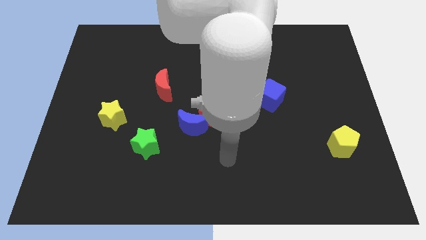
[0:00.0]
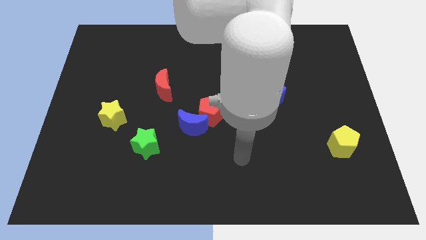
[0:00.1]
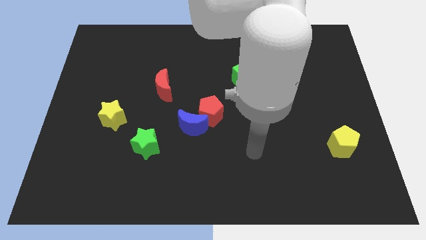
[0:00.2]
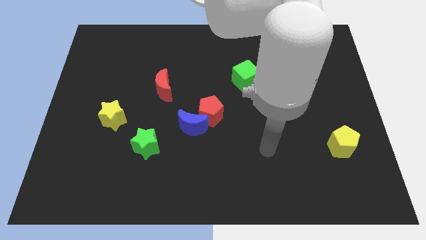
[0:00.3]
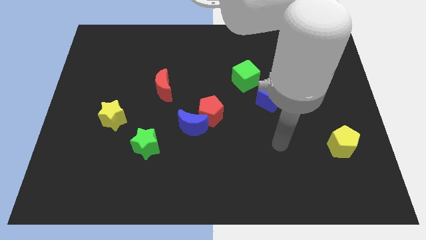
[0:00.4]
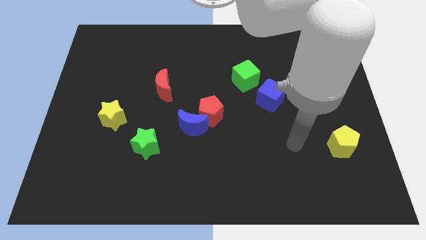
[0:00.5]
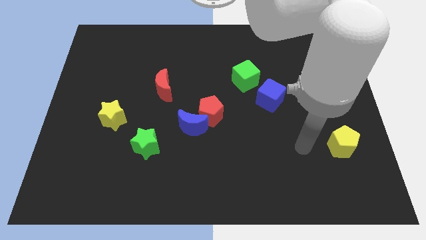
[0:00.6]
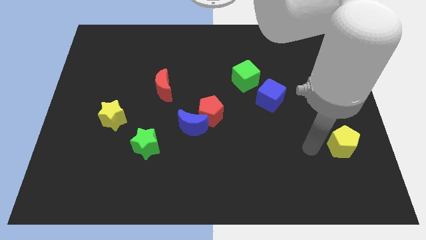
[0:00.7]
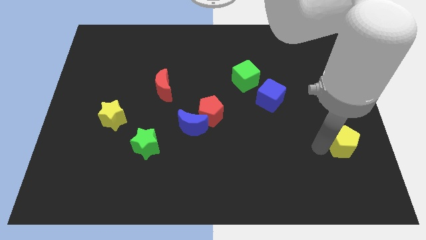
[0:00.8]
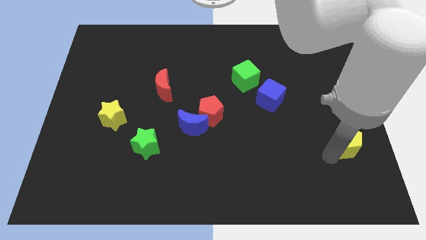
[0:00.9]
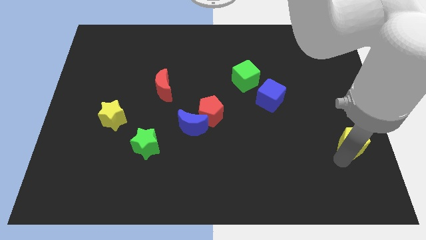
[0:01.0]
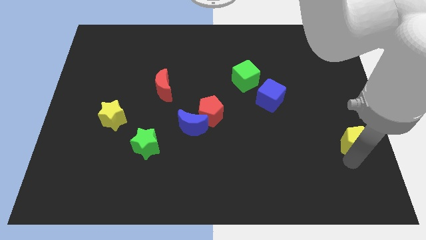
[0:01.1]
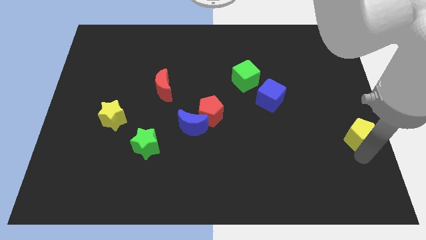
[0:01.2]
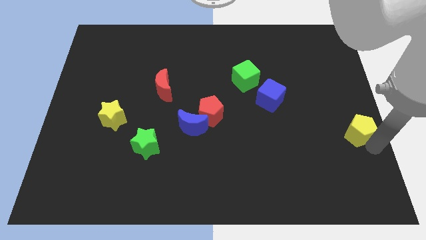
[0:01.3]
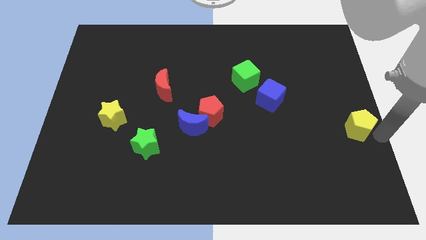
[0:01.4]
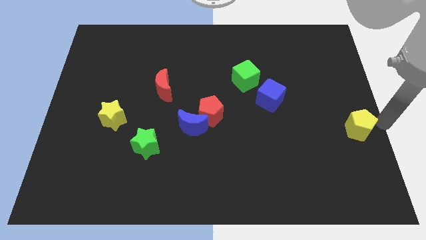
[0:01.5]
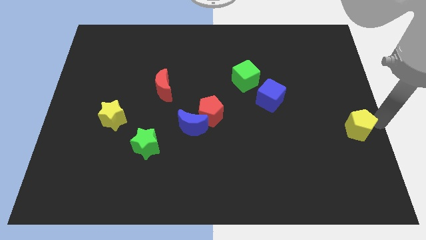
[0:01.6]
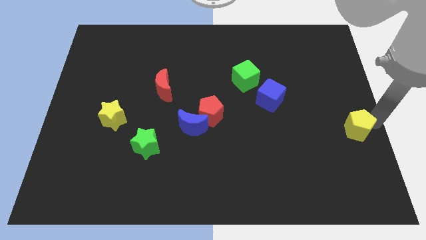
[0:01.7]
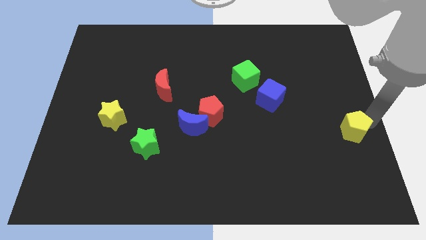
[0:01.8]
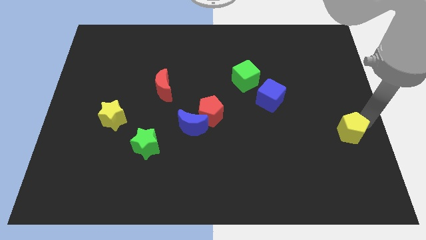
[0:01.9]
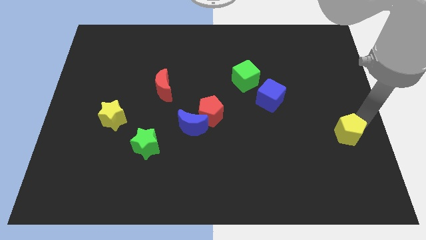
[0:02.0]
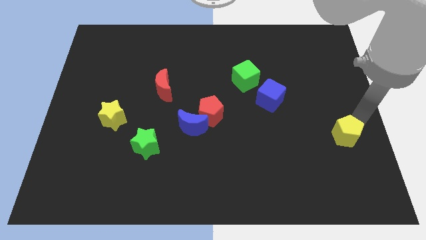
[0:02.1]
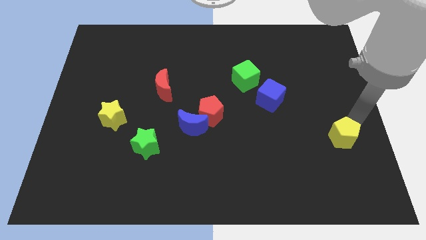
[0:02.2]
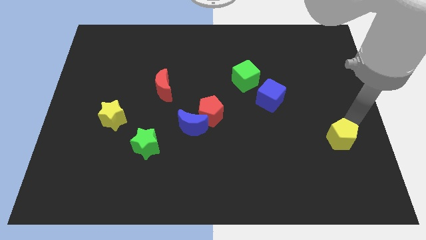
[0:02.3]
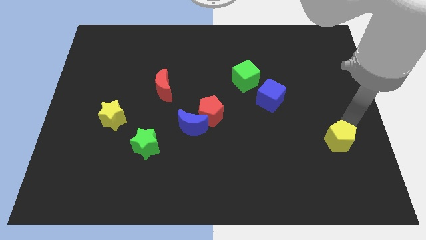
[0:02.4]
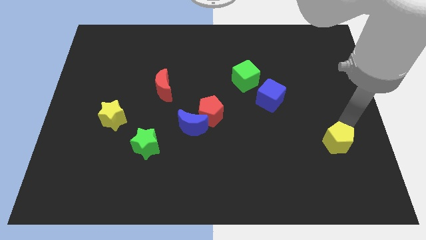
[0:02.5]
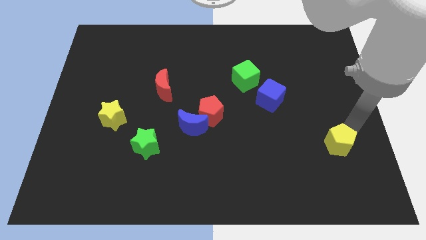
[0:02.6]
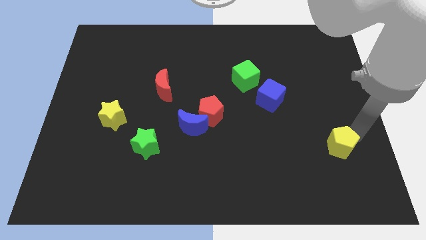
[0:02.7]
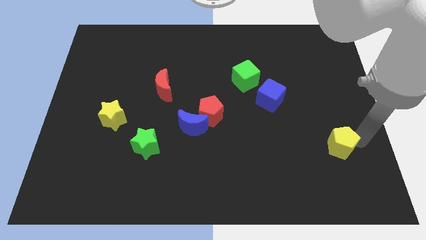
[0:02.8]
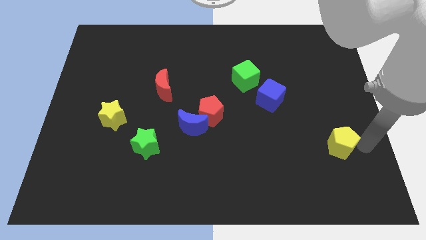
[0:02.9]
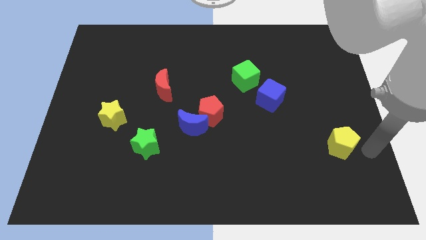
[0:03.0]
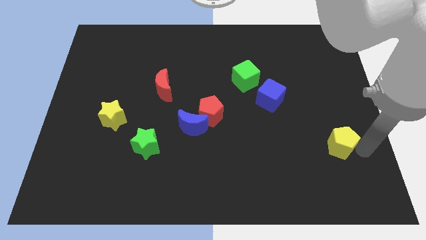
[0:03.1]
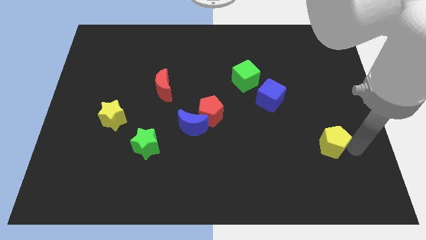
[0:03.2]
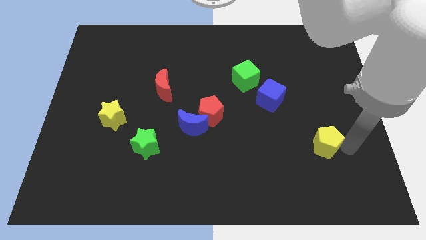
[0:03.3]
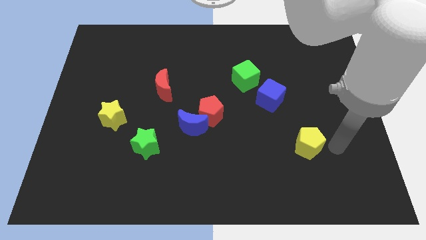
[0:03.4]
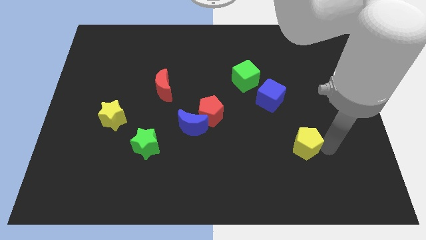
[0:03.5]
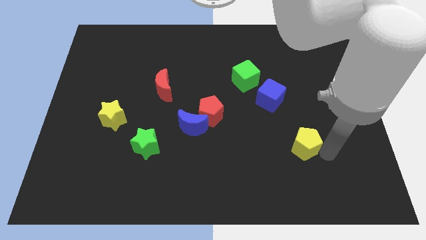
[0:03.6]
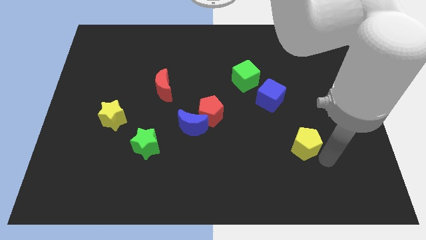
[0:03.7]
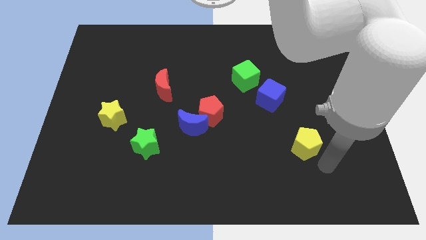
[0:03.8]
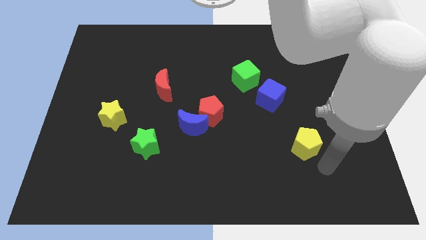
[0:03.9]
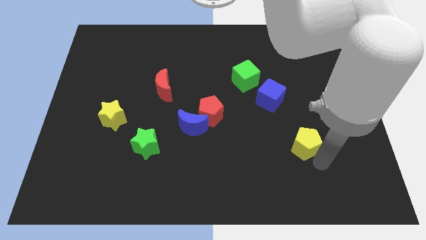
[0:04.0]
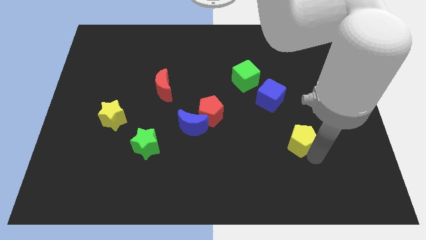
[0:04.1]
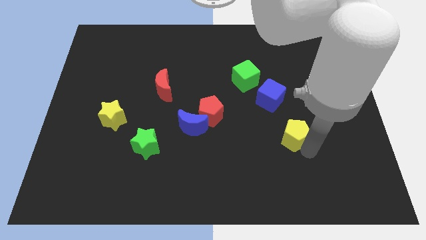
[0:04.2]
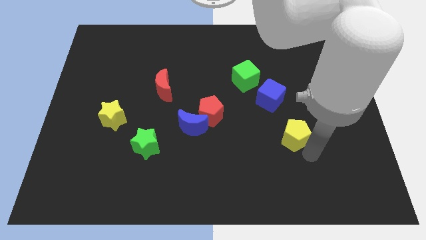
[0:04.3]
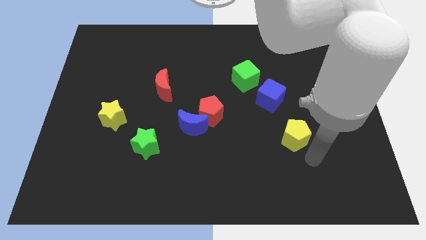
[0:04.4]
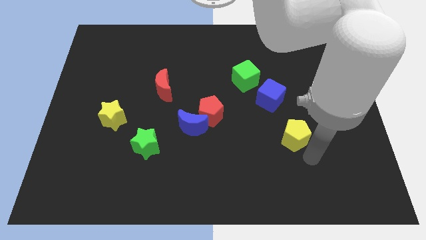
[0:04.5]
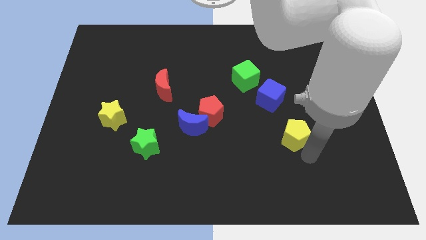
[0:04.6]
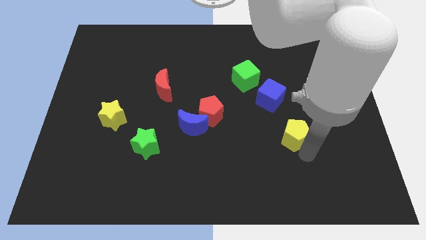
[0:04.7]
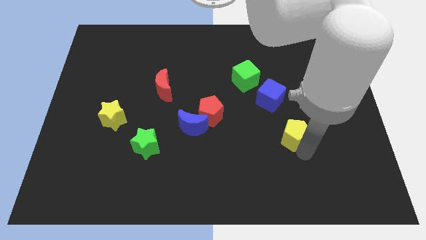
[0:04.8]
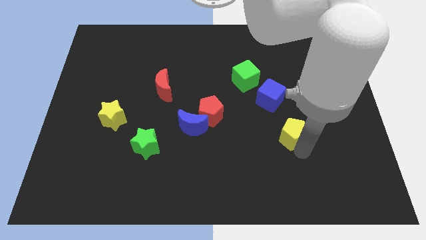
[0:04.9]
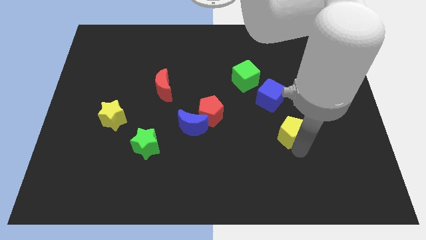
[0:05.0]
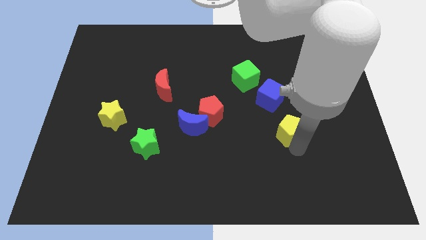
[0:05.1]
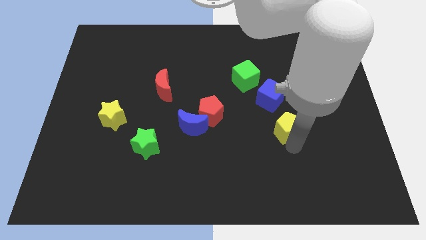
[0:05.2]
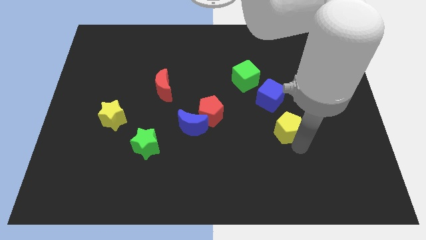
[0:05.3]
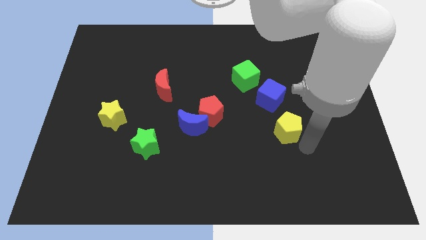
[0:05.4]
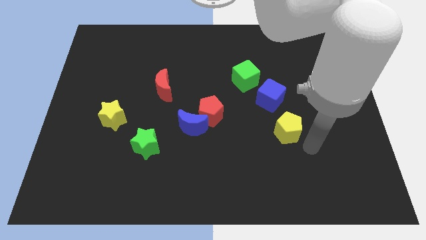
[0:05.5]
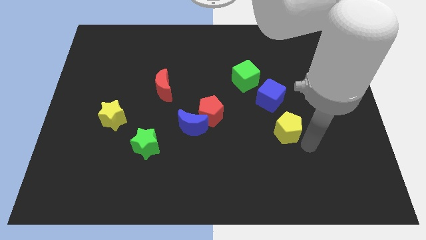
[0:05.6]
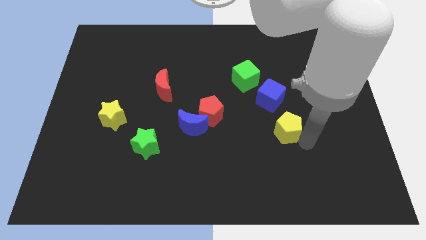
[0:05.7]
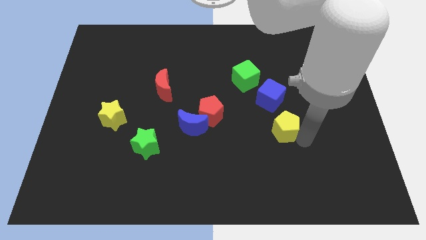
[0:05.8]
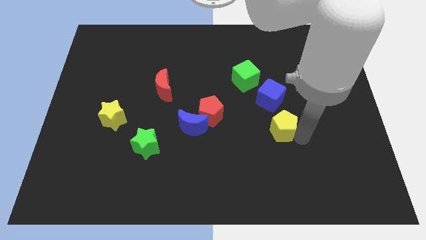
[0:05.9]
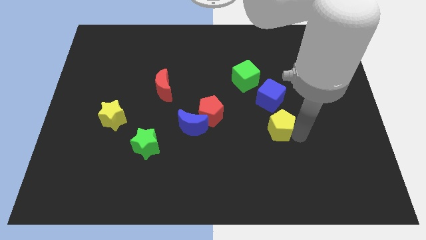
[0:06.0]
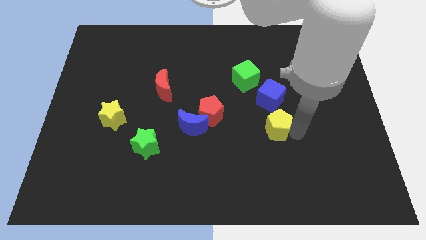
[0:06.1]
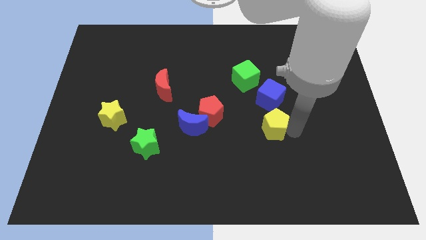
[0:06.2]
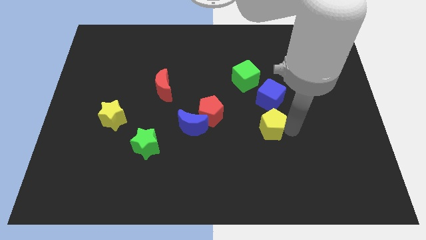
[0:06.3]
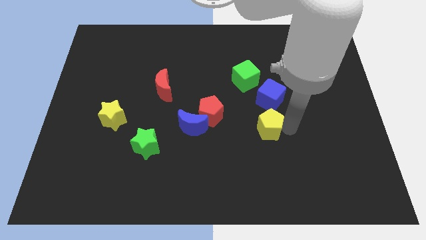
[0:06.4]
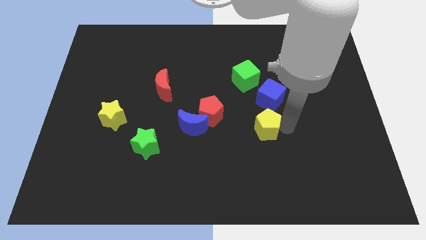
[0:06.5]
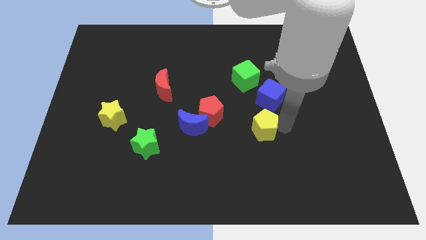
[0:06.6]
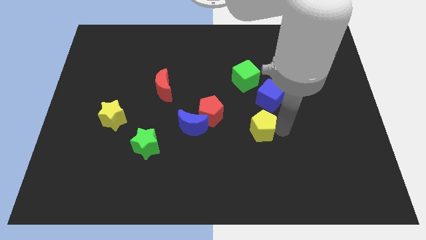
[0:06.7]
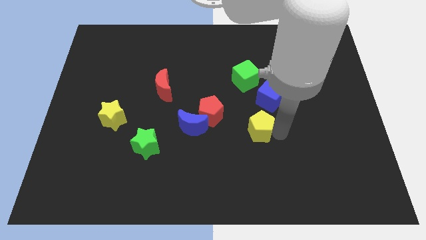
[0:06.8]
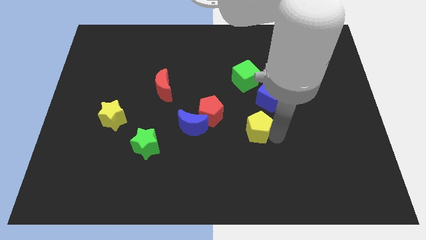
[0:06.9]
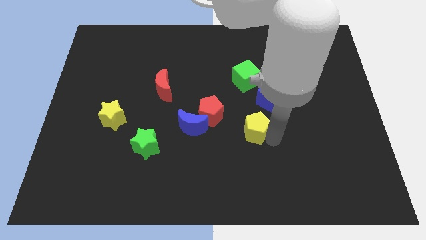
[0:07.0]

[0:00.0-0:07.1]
put the yellow pentagon to the center of the board
